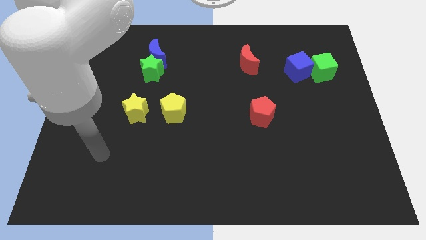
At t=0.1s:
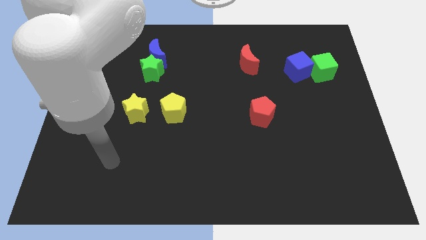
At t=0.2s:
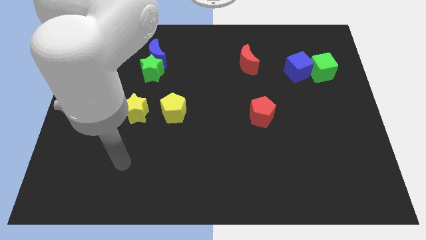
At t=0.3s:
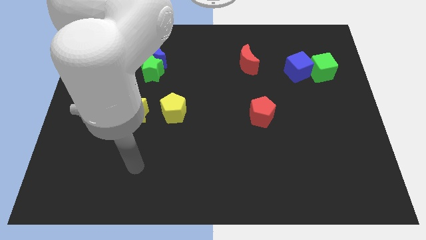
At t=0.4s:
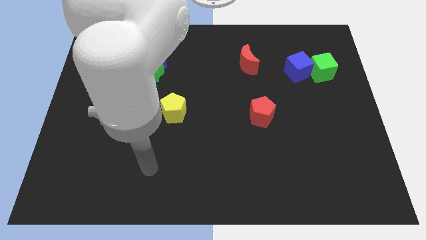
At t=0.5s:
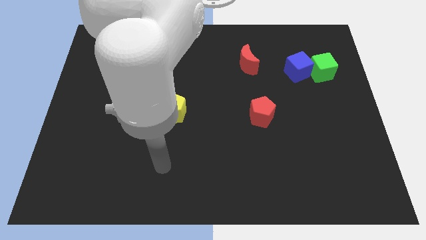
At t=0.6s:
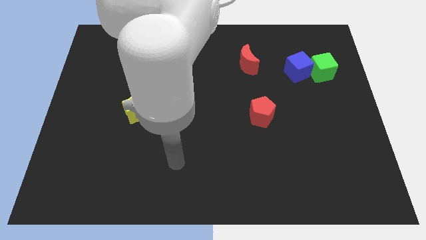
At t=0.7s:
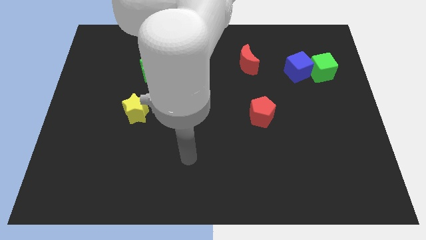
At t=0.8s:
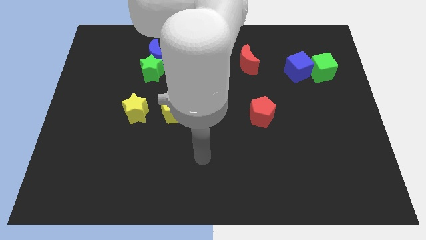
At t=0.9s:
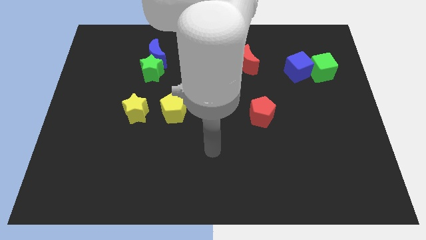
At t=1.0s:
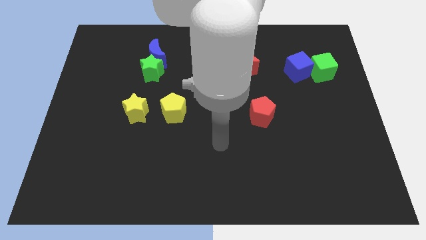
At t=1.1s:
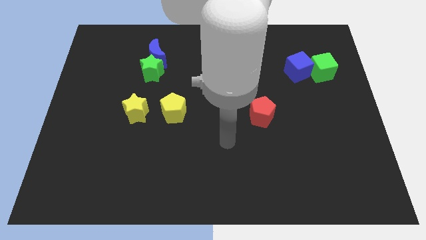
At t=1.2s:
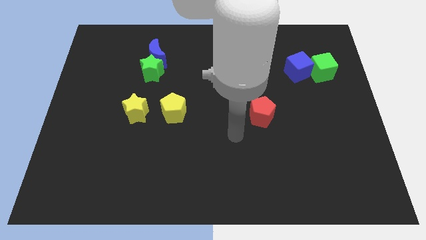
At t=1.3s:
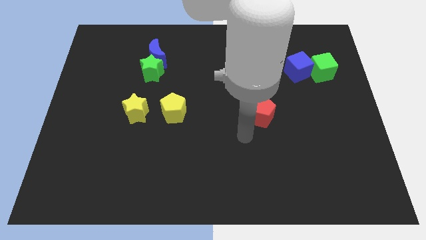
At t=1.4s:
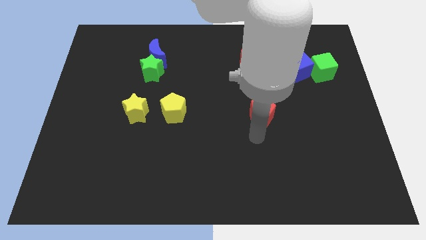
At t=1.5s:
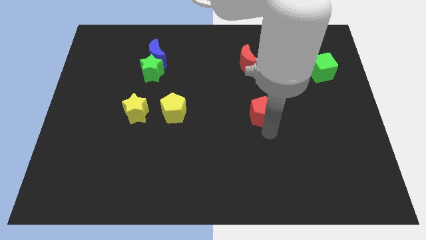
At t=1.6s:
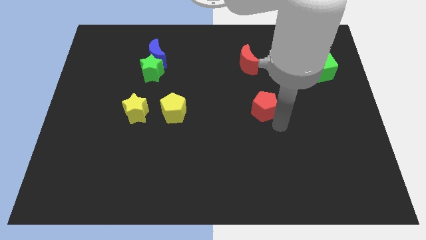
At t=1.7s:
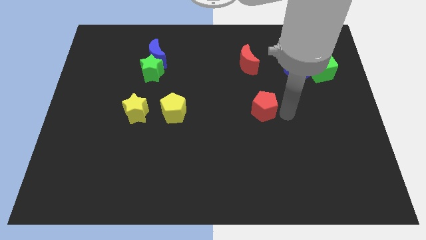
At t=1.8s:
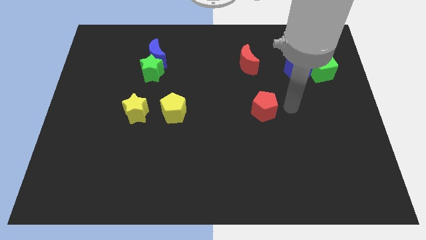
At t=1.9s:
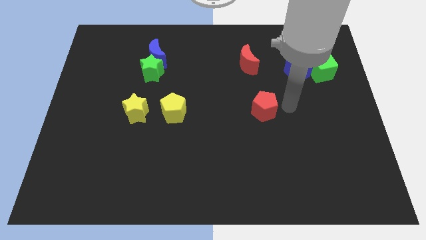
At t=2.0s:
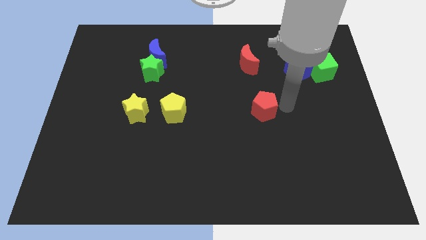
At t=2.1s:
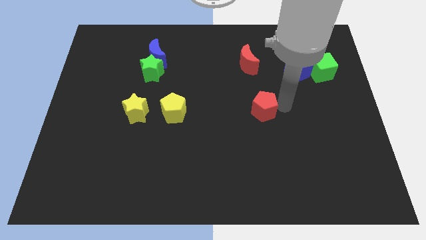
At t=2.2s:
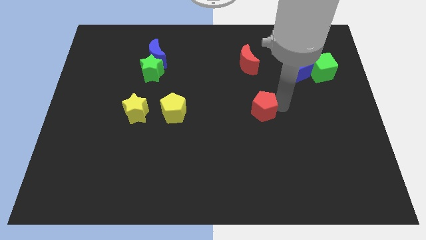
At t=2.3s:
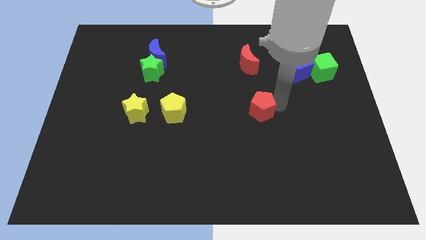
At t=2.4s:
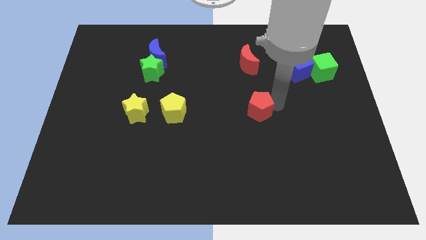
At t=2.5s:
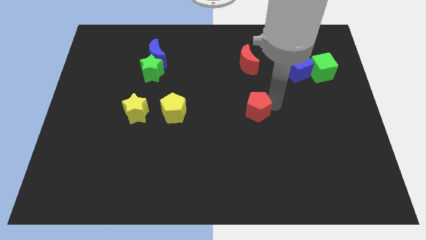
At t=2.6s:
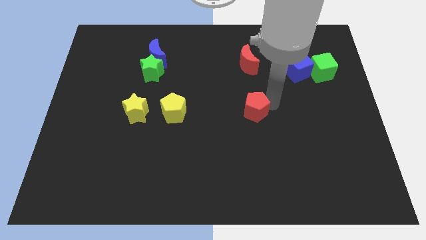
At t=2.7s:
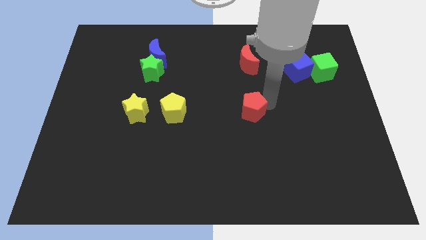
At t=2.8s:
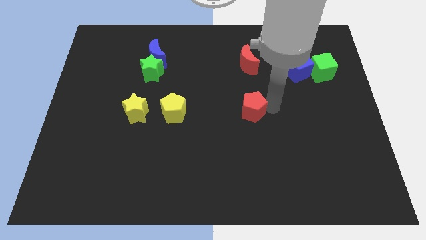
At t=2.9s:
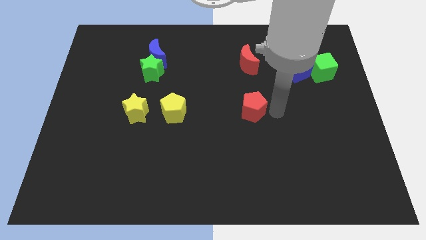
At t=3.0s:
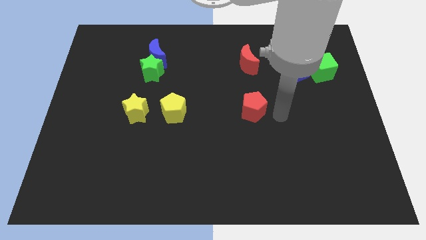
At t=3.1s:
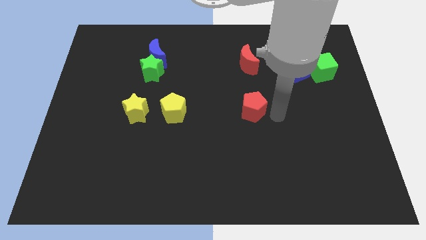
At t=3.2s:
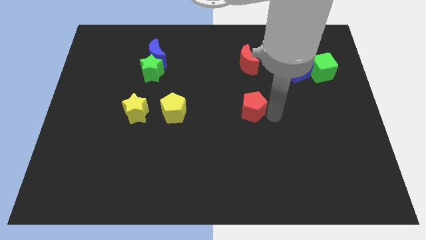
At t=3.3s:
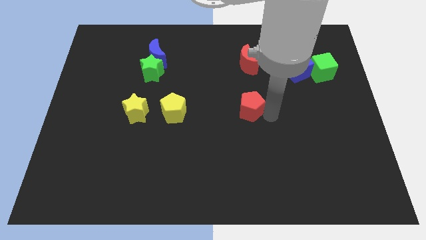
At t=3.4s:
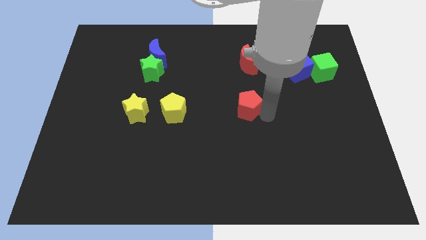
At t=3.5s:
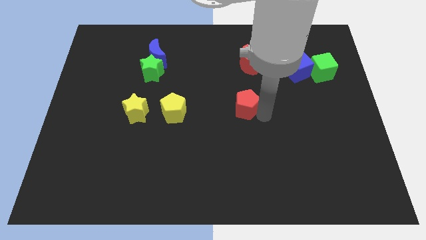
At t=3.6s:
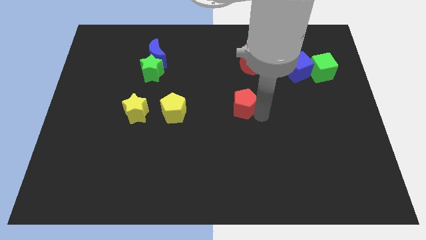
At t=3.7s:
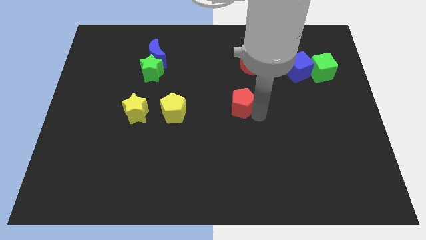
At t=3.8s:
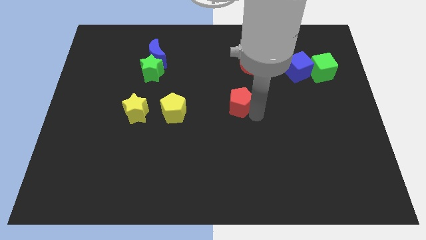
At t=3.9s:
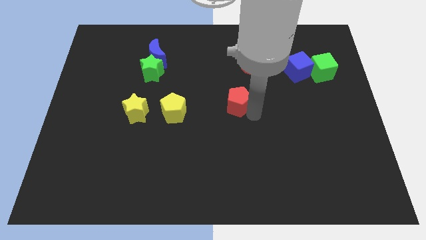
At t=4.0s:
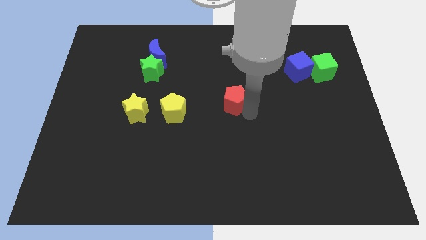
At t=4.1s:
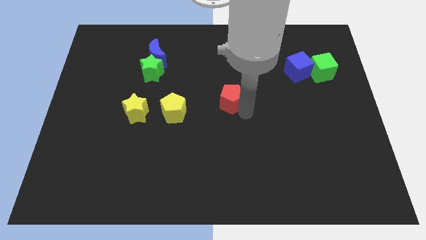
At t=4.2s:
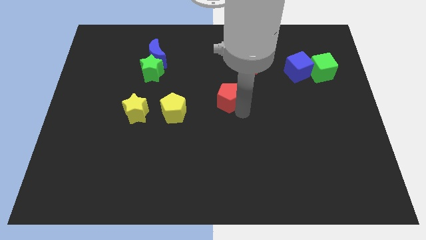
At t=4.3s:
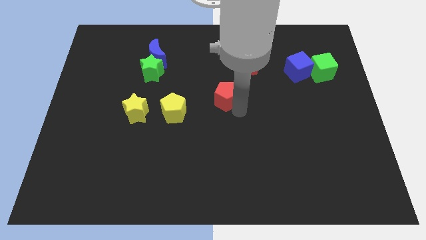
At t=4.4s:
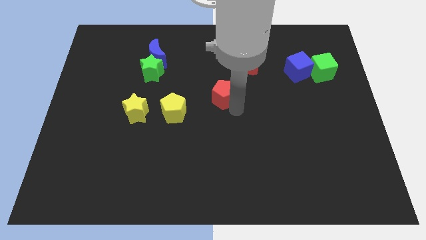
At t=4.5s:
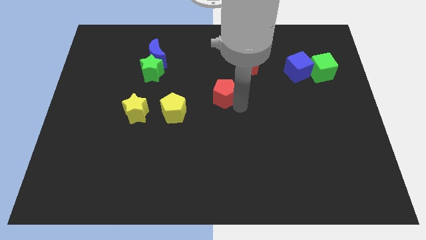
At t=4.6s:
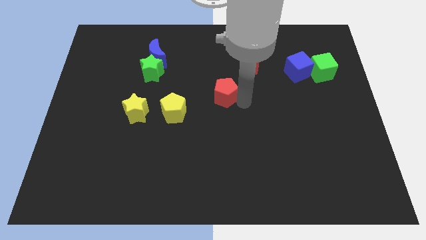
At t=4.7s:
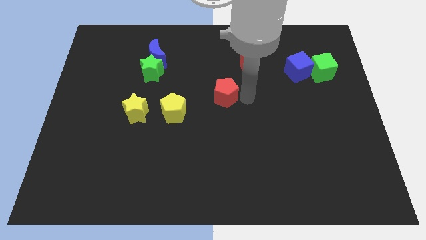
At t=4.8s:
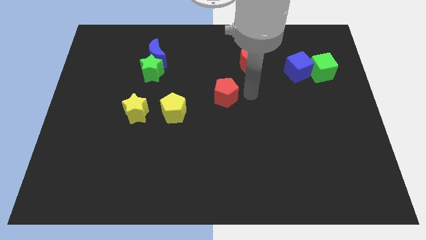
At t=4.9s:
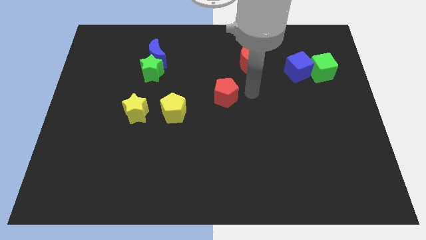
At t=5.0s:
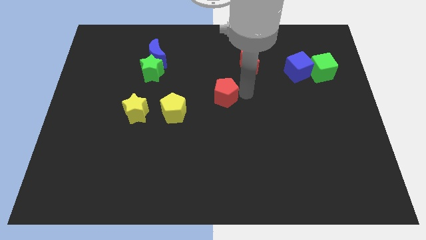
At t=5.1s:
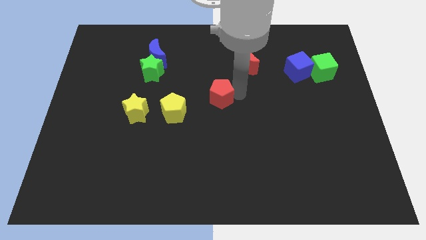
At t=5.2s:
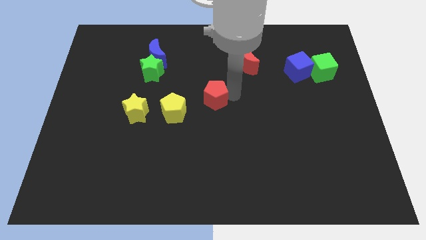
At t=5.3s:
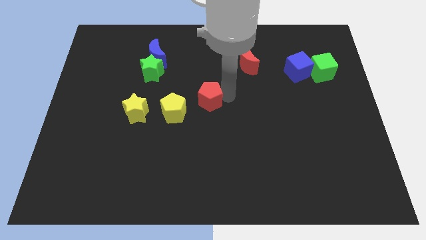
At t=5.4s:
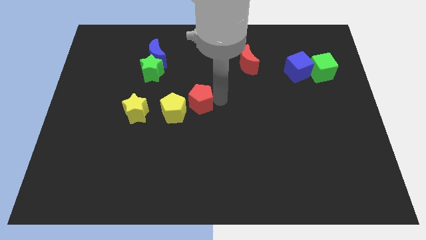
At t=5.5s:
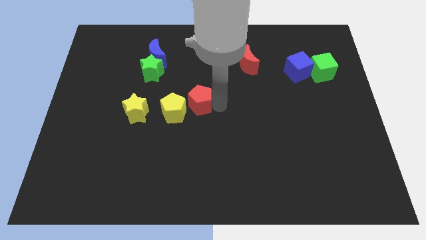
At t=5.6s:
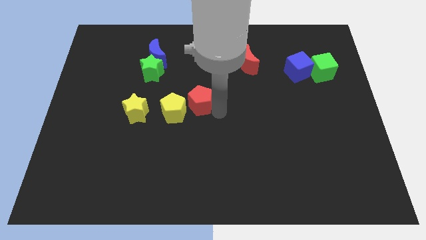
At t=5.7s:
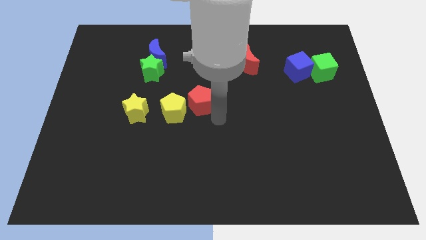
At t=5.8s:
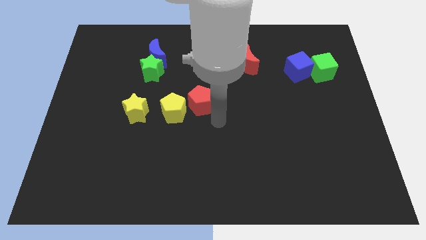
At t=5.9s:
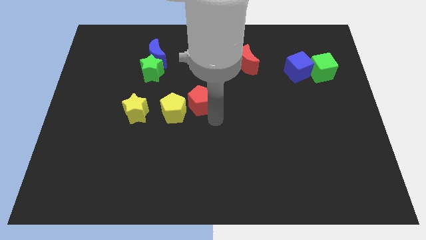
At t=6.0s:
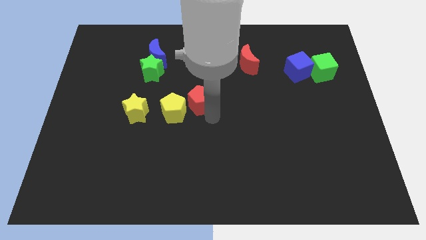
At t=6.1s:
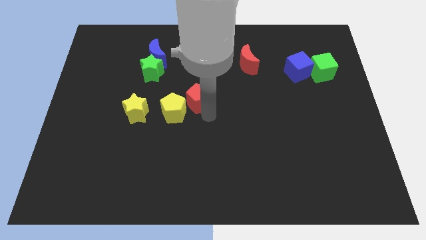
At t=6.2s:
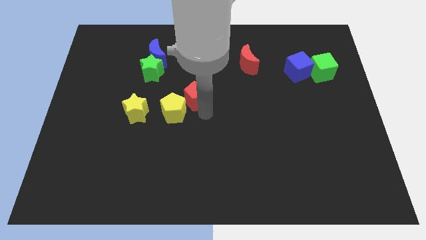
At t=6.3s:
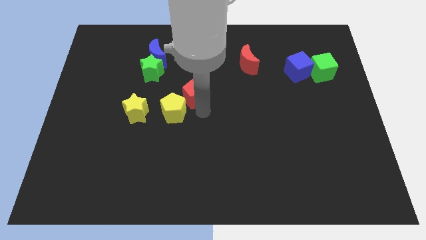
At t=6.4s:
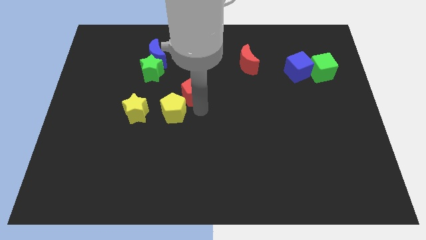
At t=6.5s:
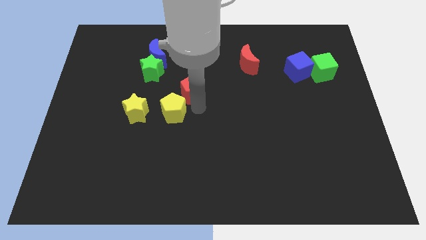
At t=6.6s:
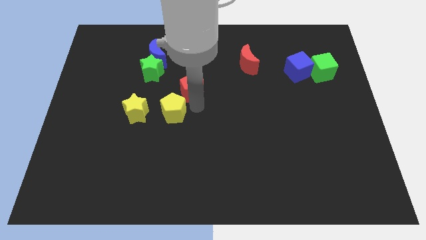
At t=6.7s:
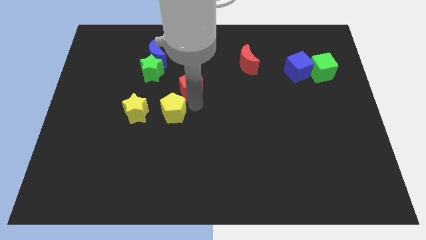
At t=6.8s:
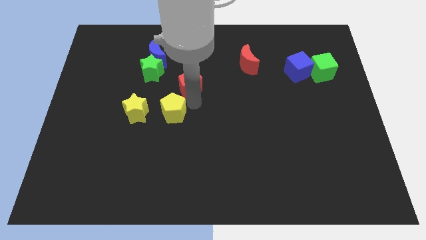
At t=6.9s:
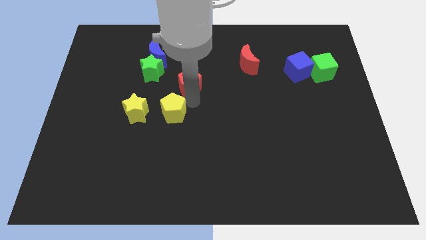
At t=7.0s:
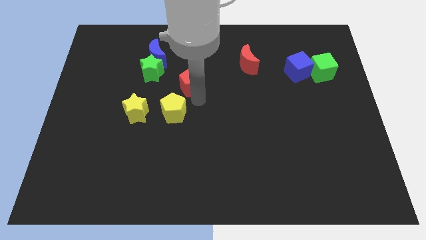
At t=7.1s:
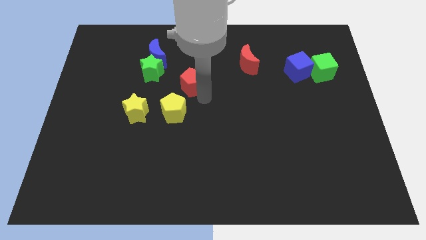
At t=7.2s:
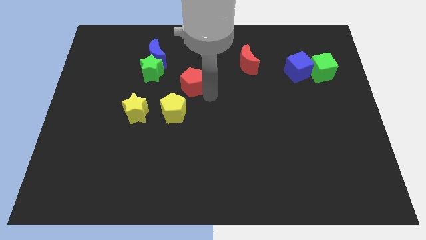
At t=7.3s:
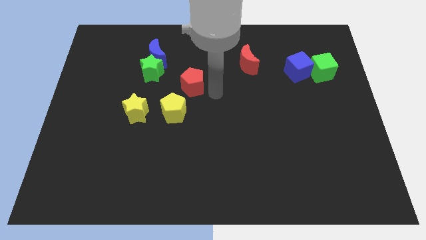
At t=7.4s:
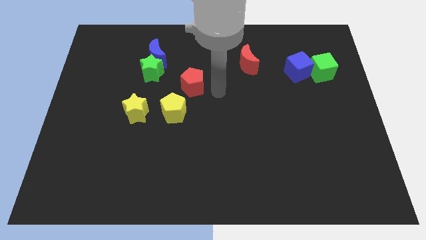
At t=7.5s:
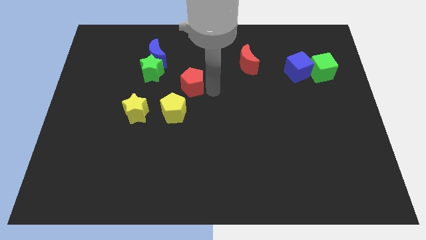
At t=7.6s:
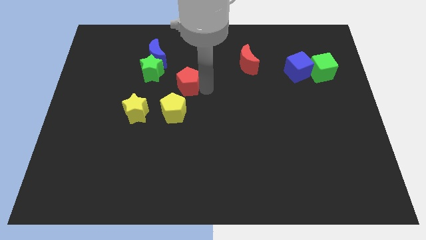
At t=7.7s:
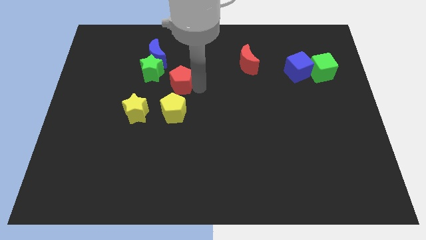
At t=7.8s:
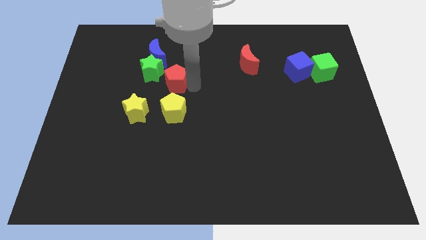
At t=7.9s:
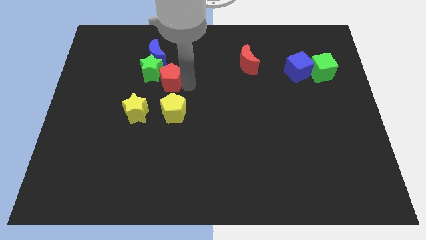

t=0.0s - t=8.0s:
push the red pentagon close to the green star
